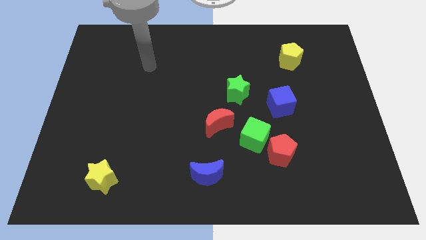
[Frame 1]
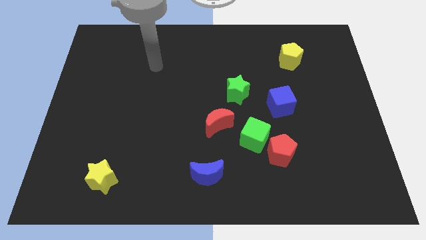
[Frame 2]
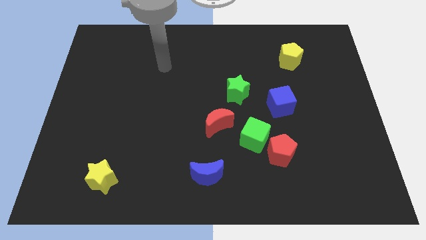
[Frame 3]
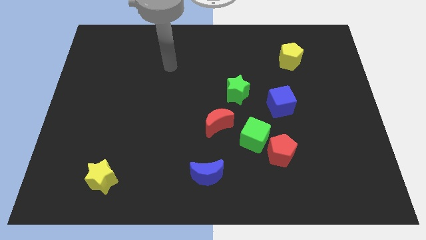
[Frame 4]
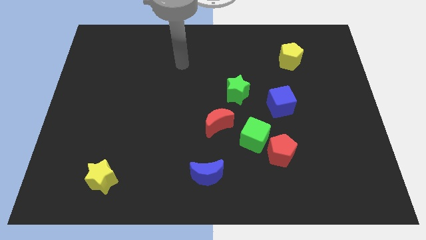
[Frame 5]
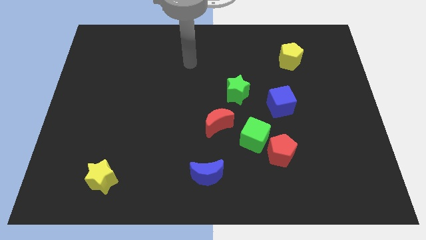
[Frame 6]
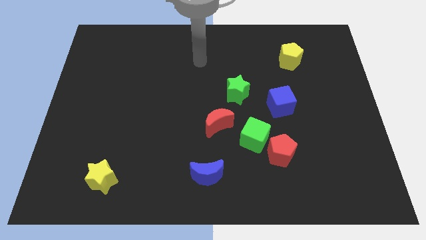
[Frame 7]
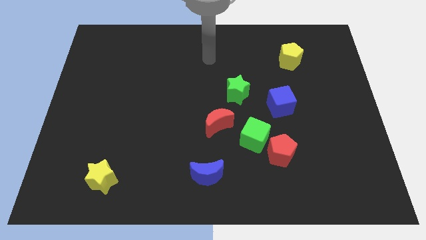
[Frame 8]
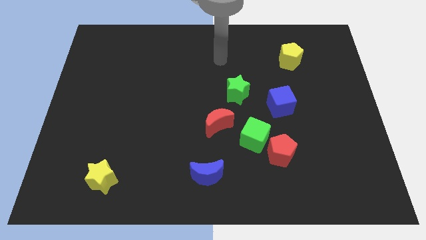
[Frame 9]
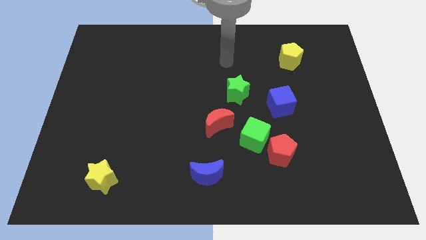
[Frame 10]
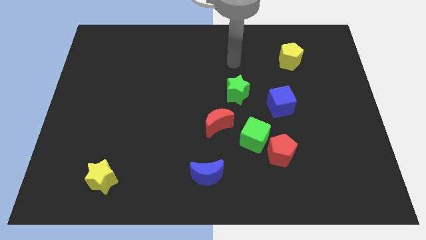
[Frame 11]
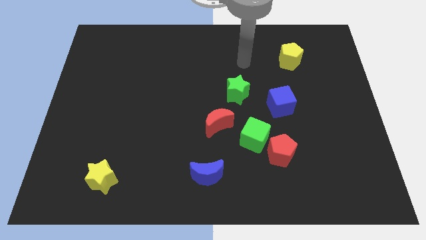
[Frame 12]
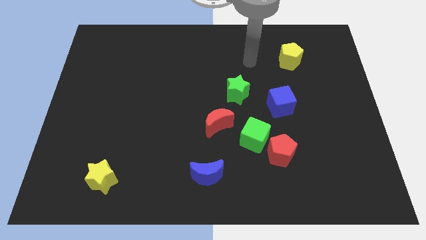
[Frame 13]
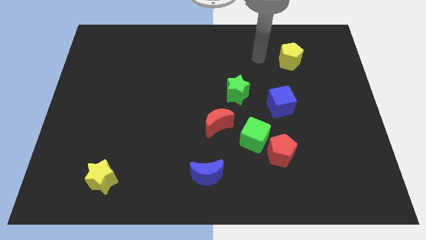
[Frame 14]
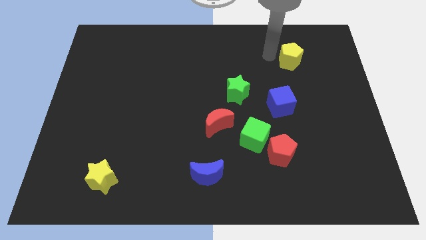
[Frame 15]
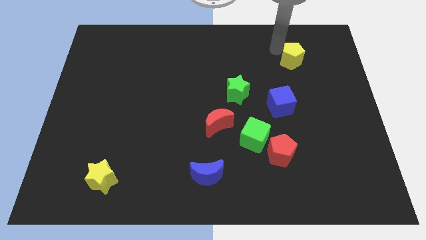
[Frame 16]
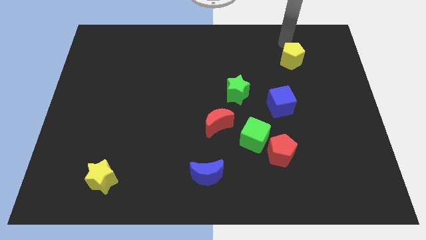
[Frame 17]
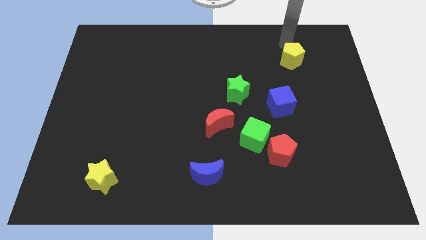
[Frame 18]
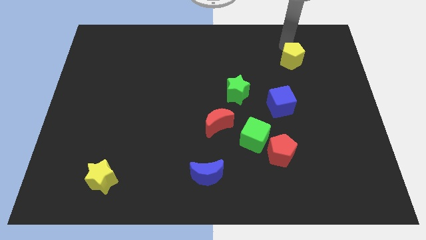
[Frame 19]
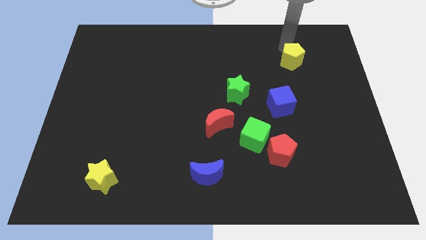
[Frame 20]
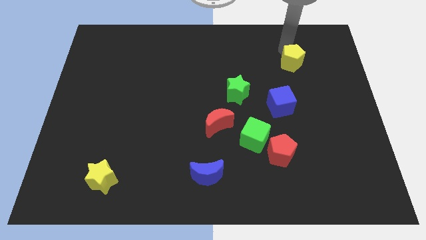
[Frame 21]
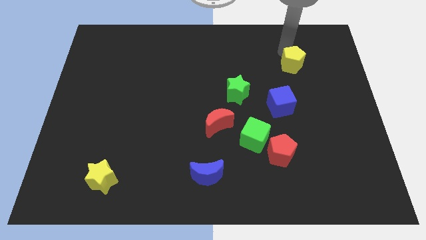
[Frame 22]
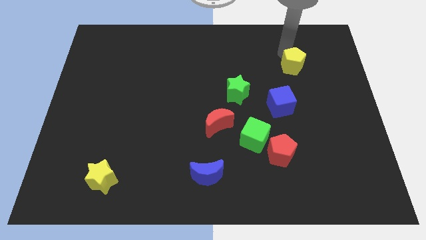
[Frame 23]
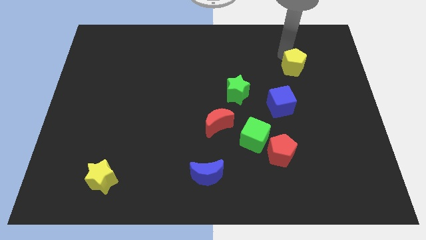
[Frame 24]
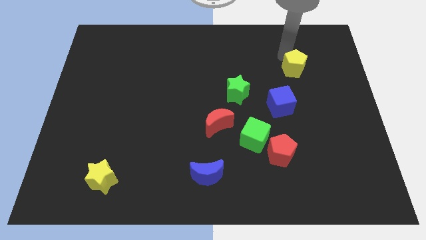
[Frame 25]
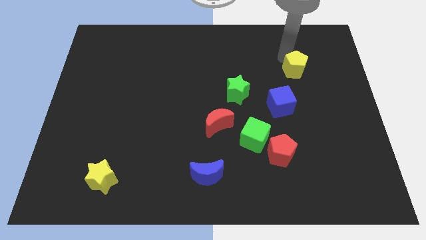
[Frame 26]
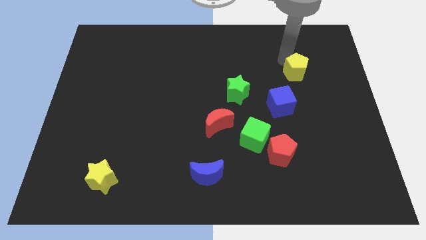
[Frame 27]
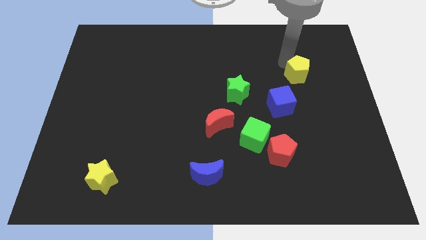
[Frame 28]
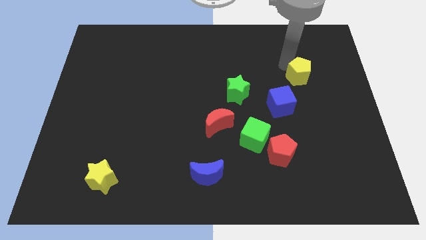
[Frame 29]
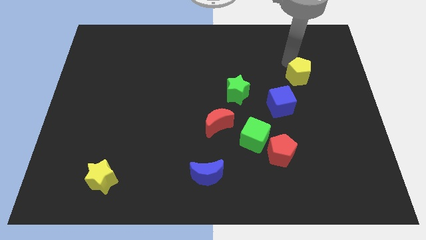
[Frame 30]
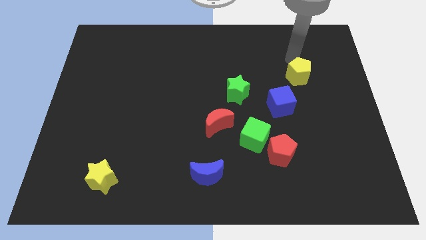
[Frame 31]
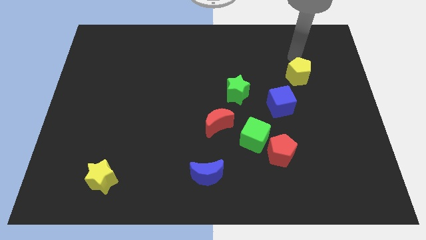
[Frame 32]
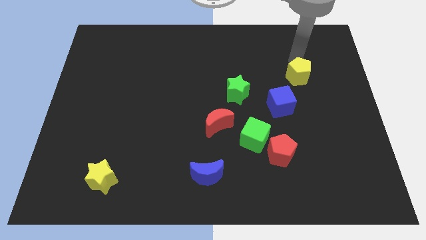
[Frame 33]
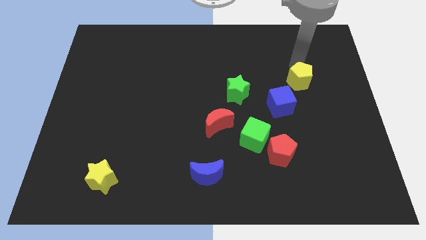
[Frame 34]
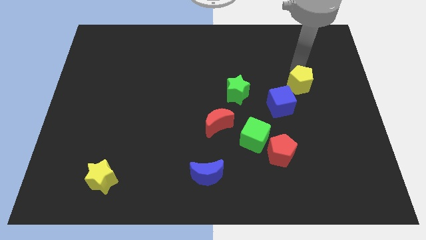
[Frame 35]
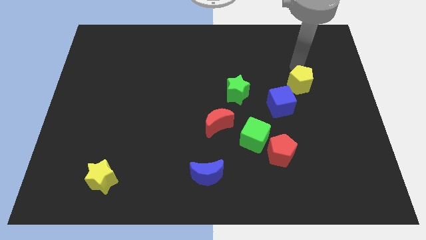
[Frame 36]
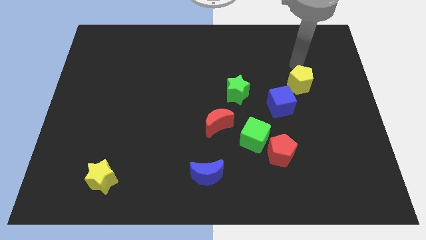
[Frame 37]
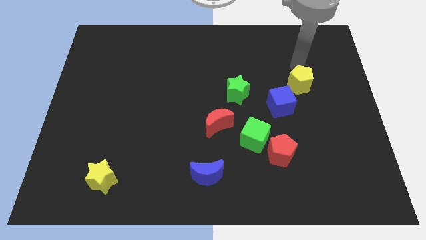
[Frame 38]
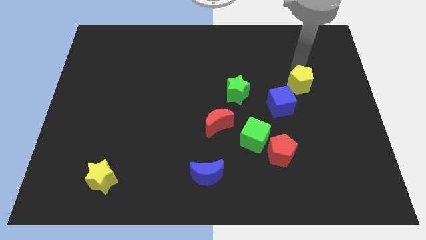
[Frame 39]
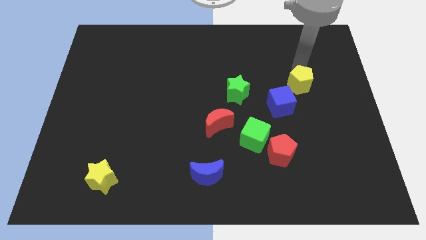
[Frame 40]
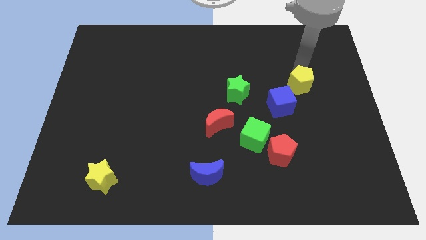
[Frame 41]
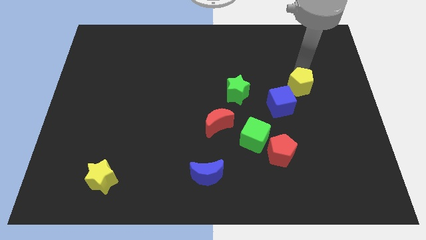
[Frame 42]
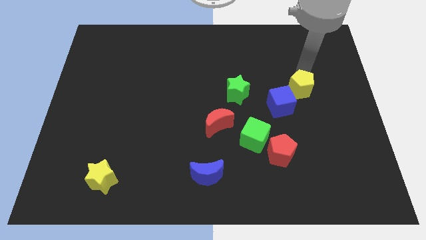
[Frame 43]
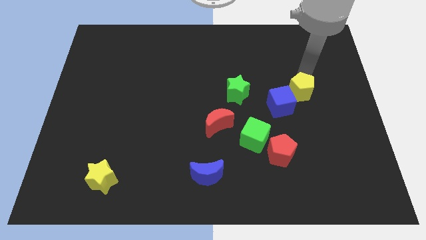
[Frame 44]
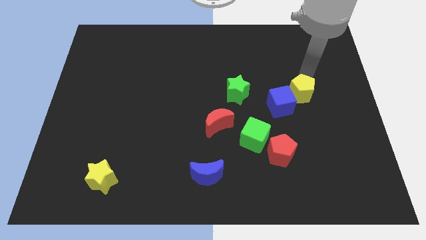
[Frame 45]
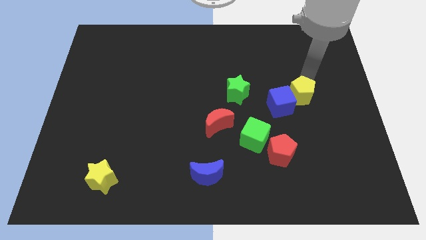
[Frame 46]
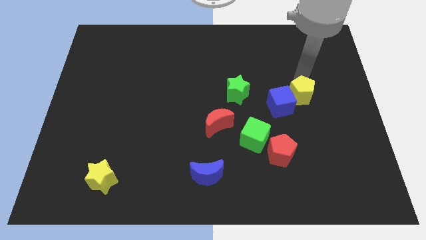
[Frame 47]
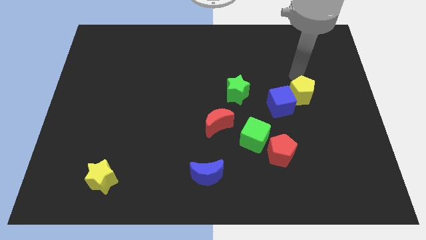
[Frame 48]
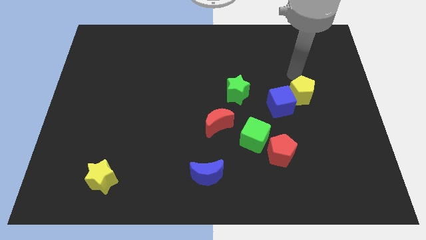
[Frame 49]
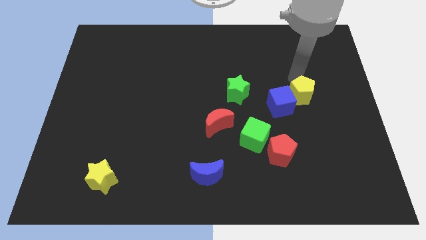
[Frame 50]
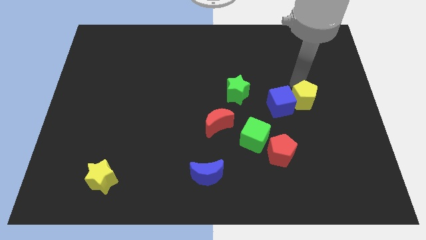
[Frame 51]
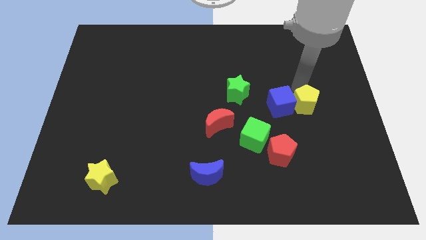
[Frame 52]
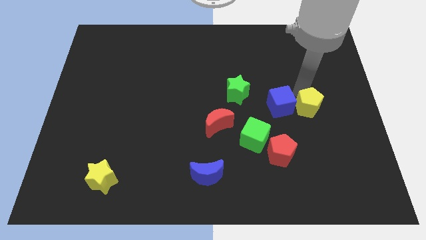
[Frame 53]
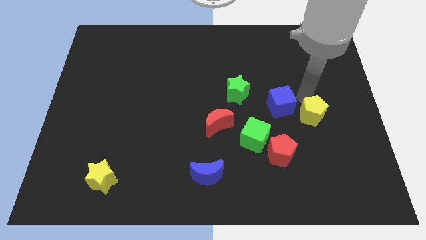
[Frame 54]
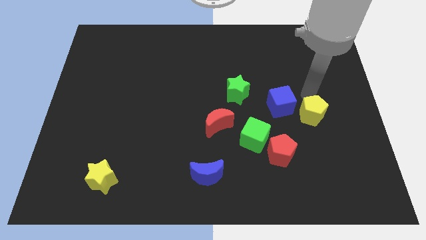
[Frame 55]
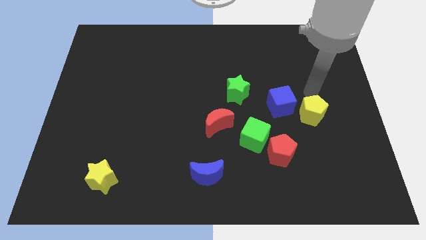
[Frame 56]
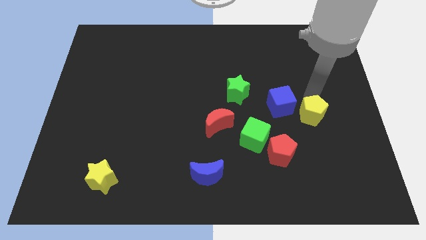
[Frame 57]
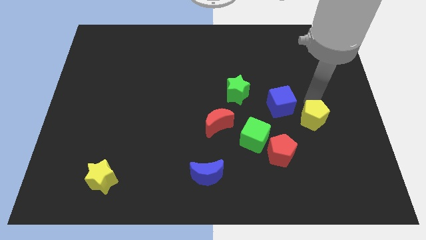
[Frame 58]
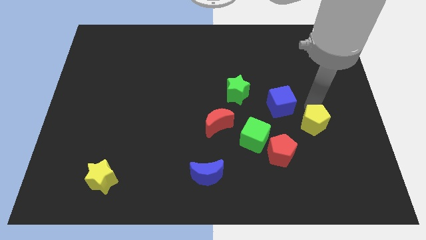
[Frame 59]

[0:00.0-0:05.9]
slide the yellow pentagon down

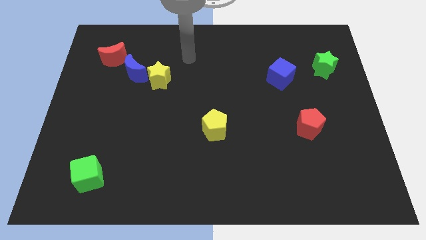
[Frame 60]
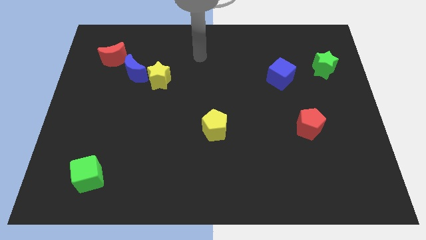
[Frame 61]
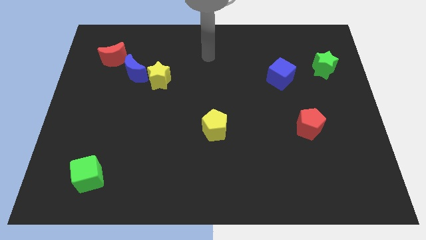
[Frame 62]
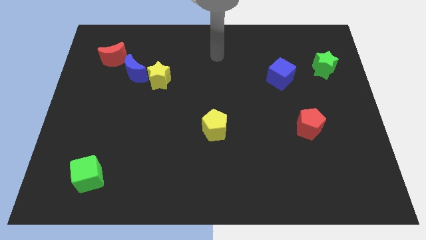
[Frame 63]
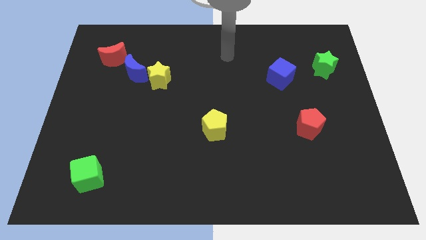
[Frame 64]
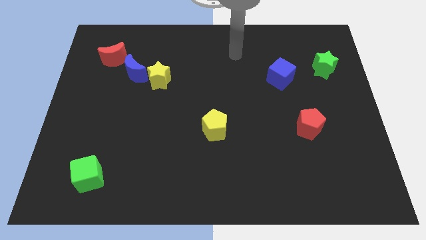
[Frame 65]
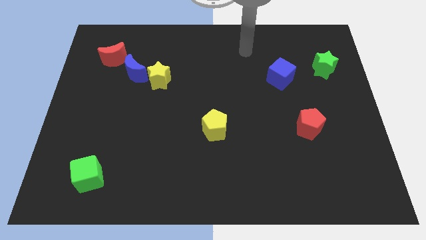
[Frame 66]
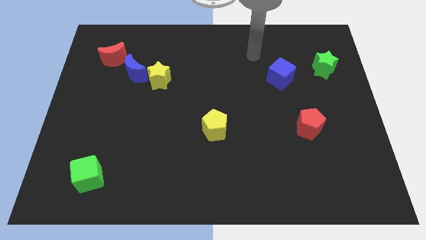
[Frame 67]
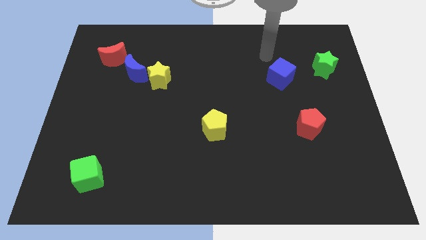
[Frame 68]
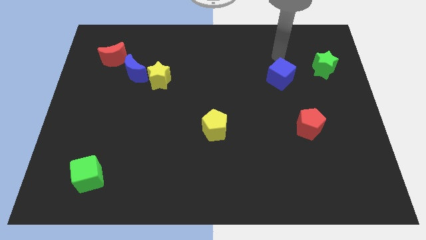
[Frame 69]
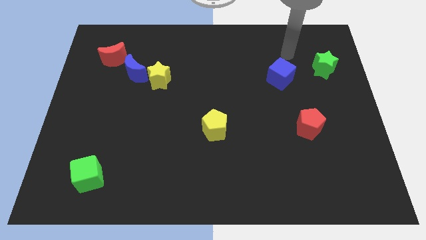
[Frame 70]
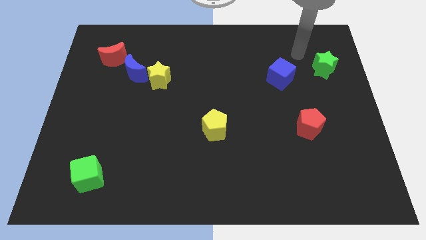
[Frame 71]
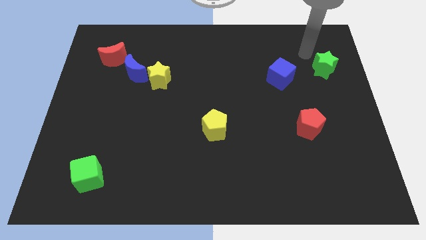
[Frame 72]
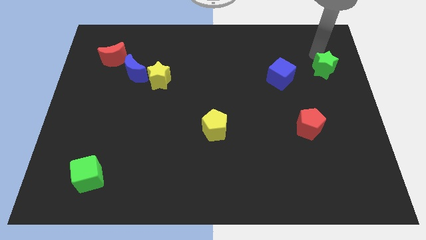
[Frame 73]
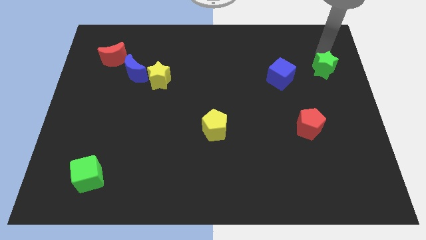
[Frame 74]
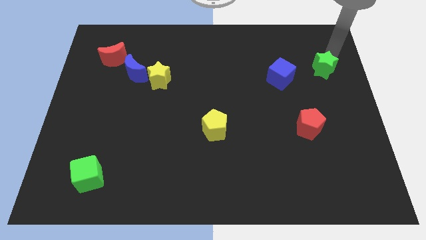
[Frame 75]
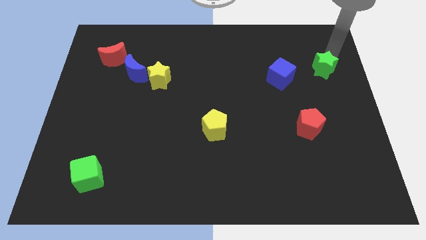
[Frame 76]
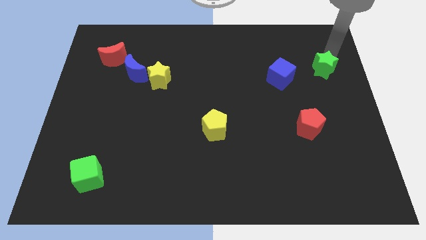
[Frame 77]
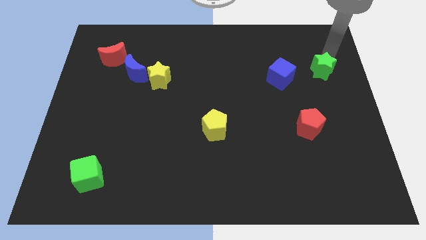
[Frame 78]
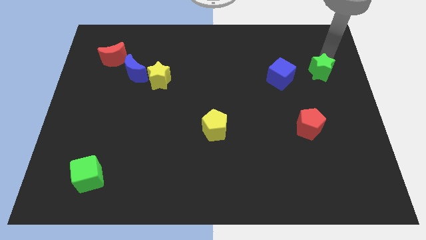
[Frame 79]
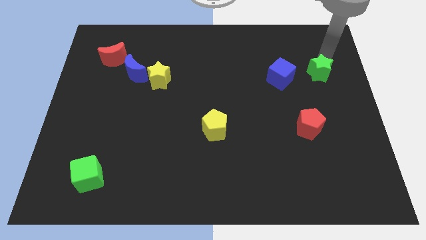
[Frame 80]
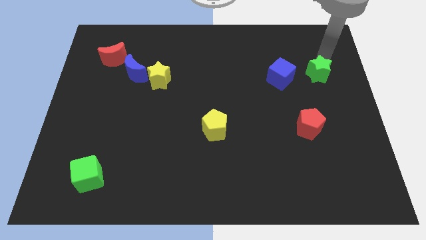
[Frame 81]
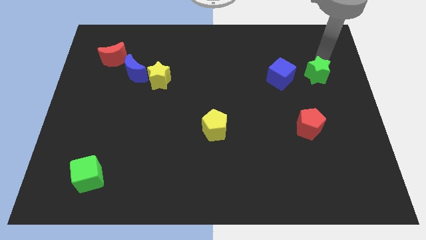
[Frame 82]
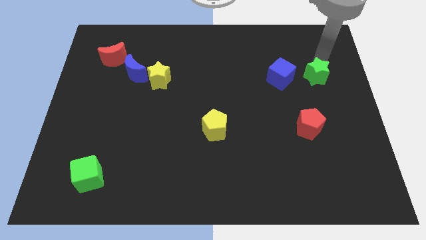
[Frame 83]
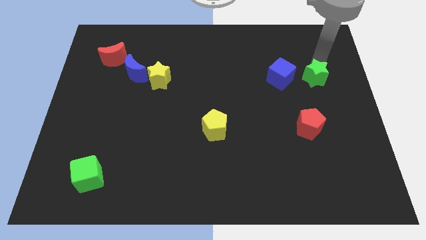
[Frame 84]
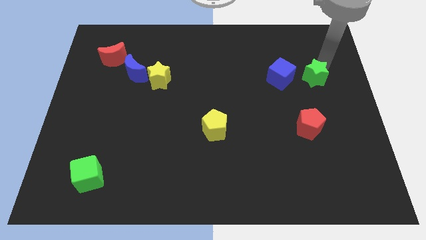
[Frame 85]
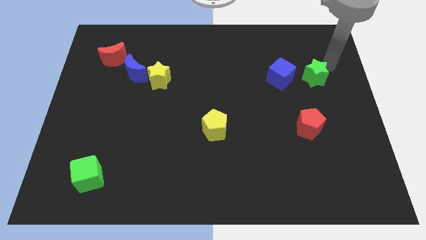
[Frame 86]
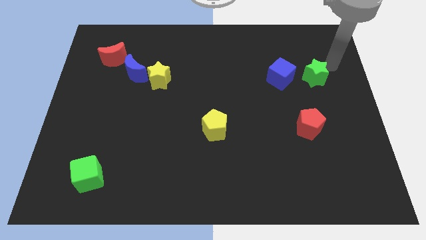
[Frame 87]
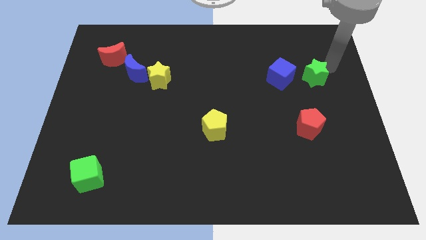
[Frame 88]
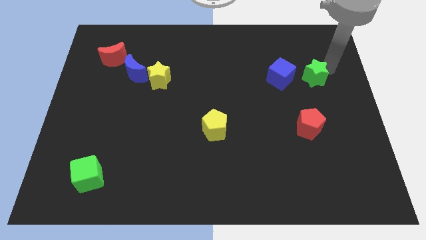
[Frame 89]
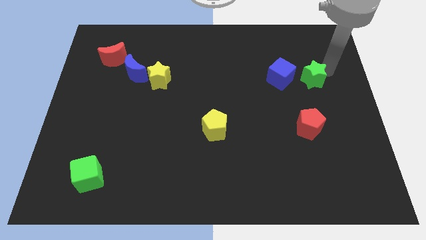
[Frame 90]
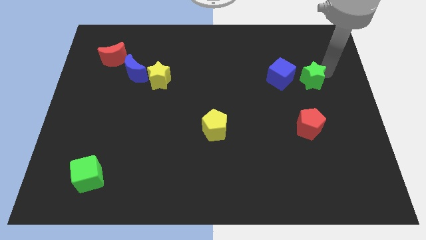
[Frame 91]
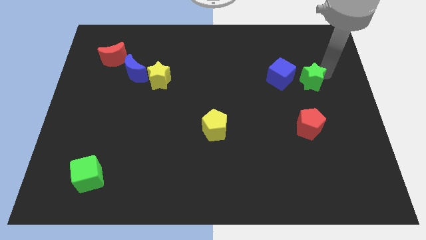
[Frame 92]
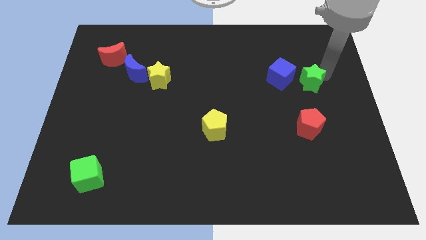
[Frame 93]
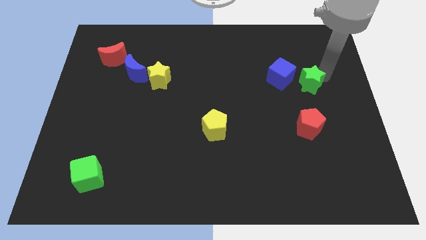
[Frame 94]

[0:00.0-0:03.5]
push the green star downwards and left diagonally slightly
